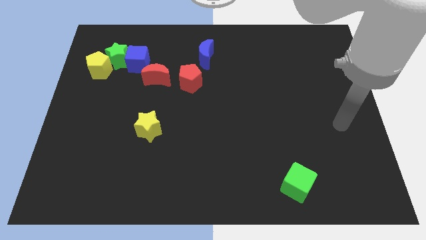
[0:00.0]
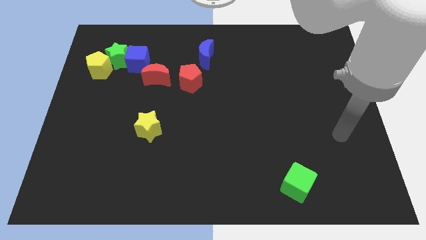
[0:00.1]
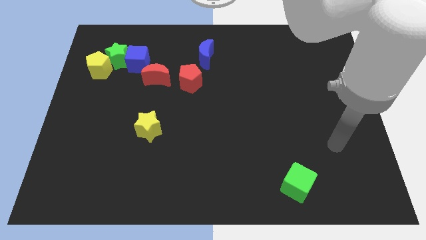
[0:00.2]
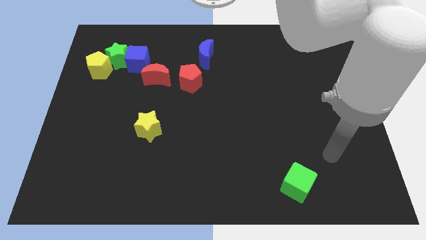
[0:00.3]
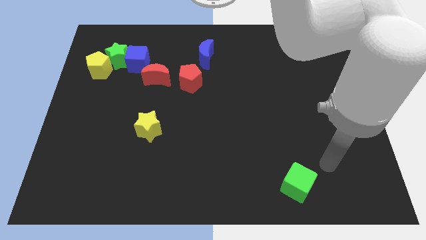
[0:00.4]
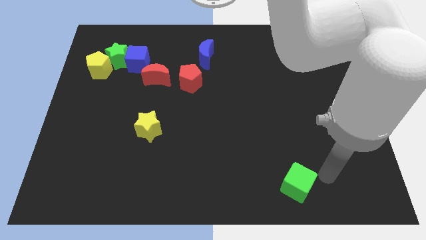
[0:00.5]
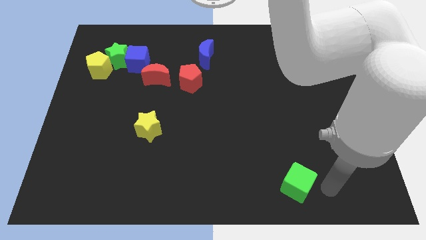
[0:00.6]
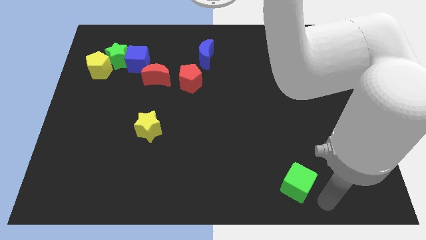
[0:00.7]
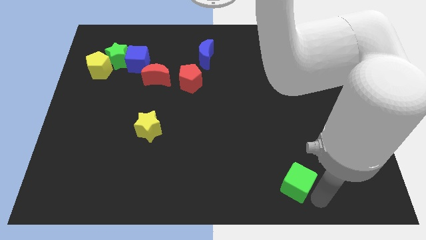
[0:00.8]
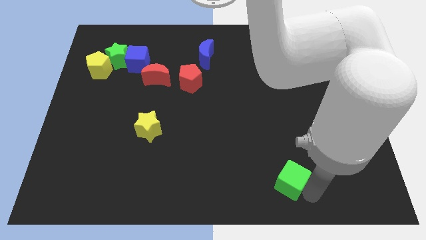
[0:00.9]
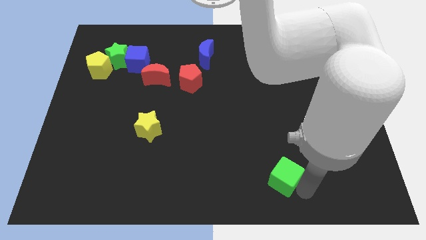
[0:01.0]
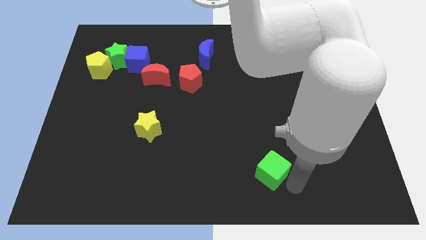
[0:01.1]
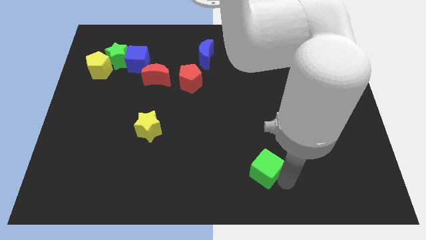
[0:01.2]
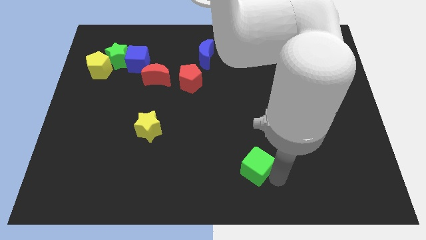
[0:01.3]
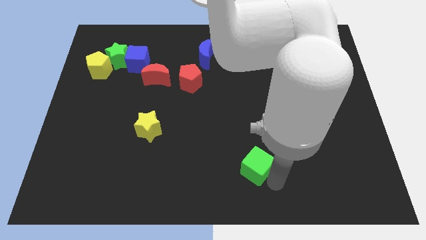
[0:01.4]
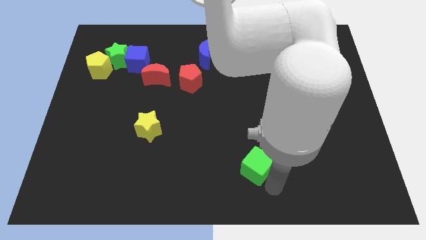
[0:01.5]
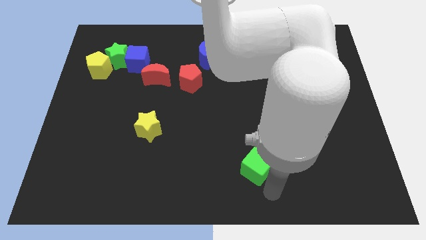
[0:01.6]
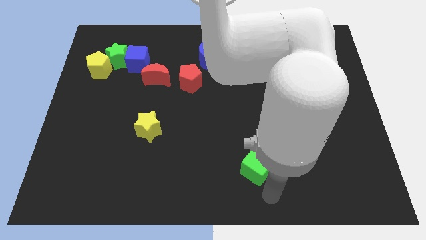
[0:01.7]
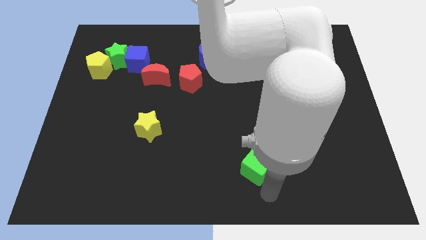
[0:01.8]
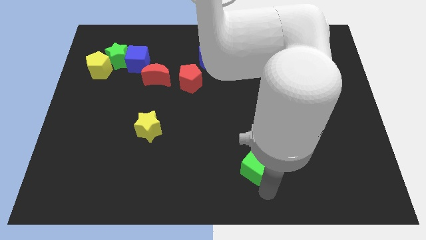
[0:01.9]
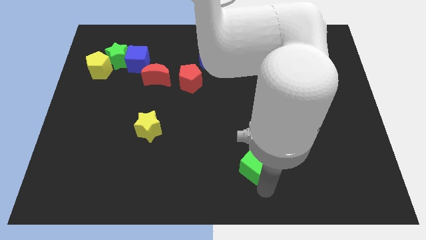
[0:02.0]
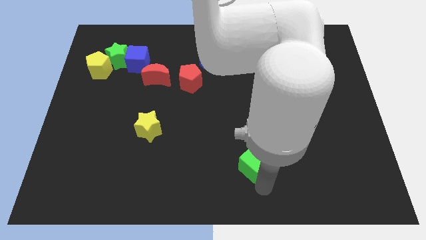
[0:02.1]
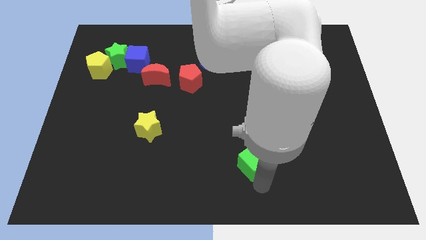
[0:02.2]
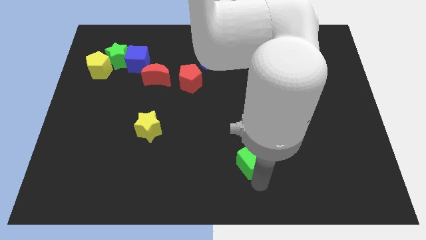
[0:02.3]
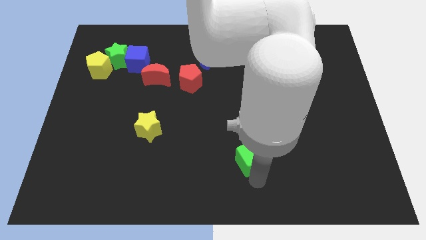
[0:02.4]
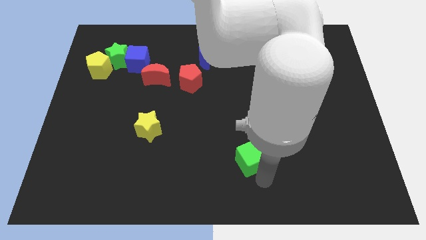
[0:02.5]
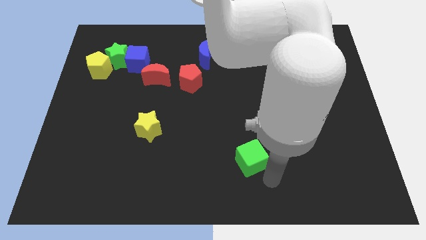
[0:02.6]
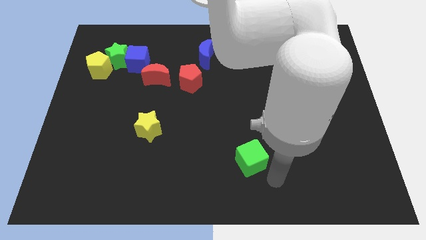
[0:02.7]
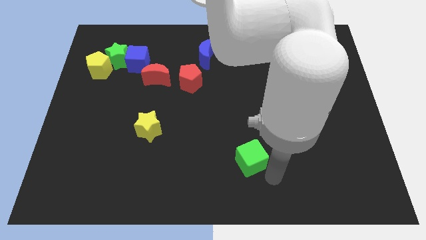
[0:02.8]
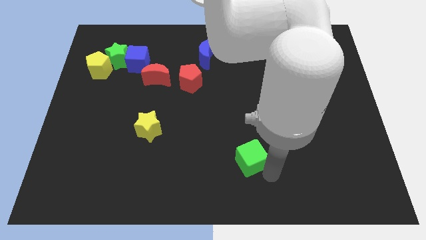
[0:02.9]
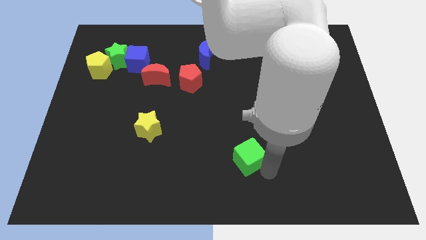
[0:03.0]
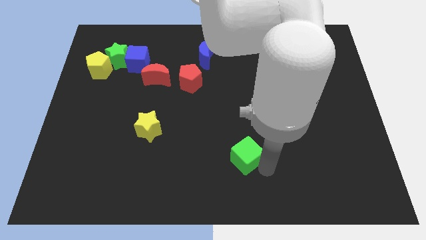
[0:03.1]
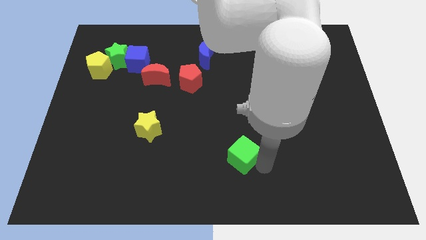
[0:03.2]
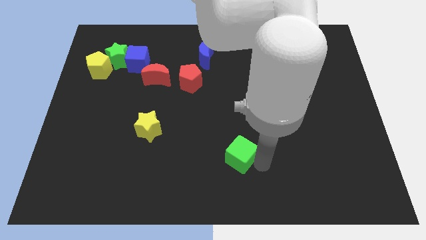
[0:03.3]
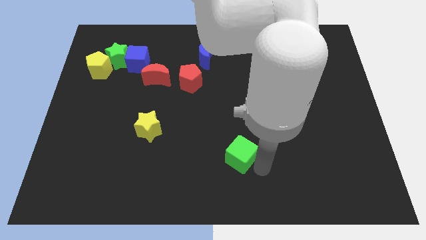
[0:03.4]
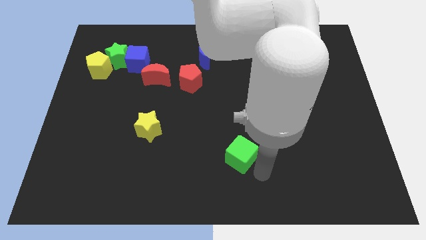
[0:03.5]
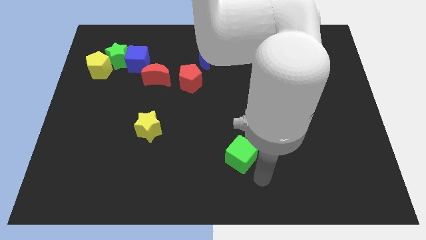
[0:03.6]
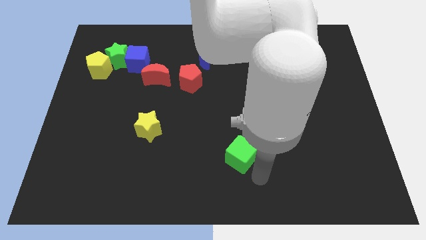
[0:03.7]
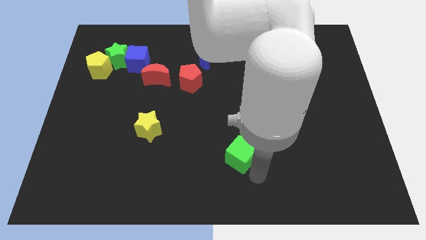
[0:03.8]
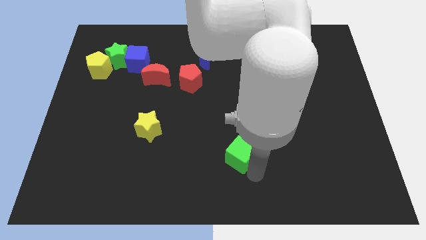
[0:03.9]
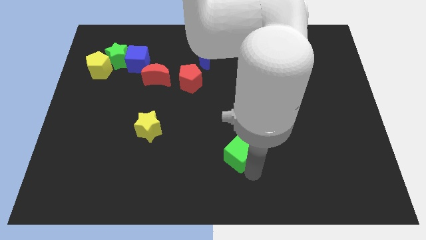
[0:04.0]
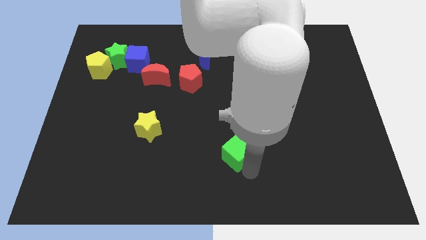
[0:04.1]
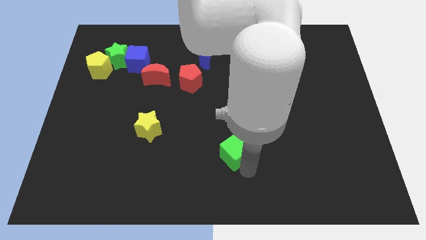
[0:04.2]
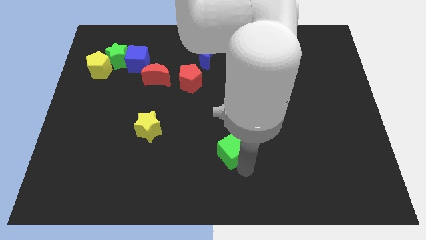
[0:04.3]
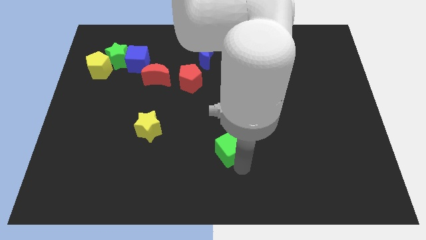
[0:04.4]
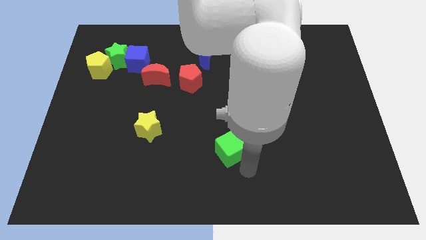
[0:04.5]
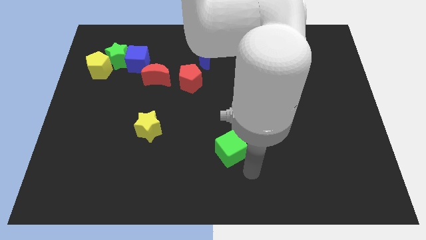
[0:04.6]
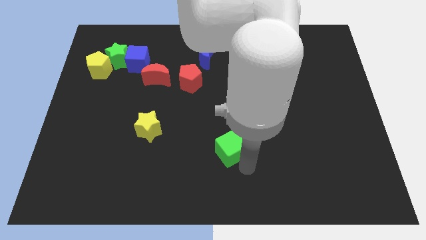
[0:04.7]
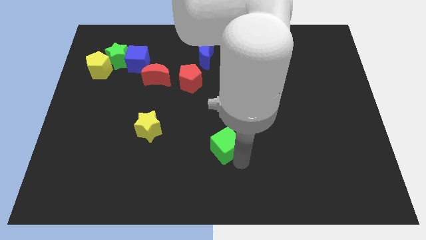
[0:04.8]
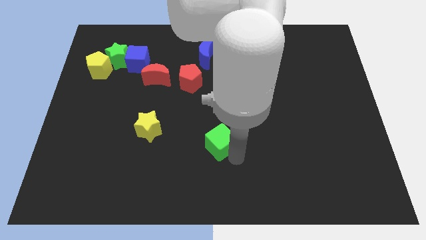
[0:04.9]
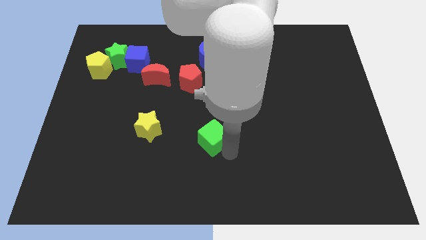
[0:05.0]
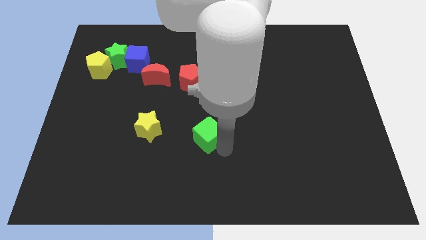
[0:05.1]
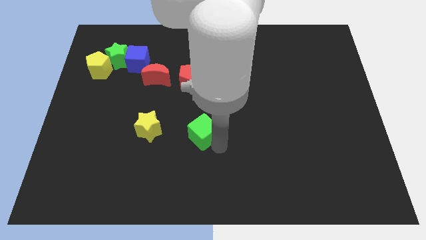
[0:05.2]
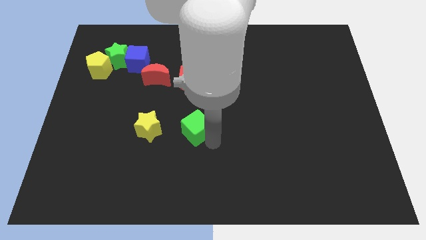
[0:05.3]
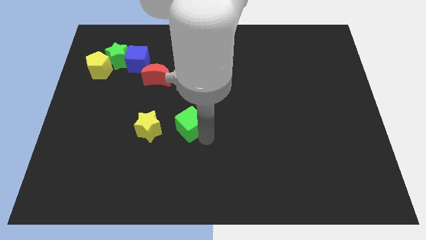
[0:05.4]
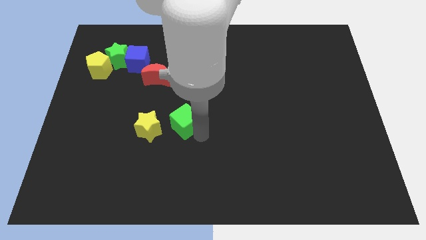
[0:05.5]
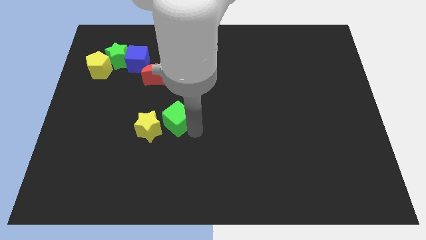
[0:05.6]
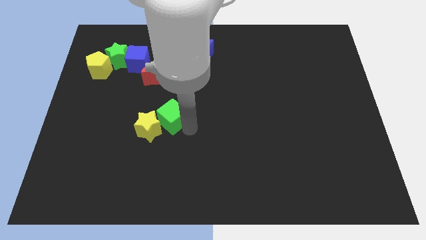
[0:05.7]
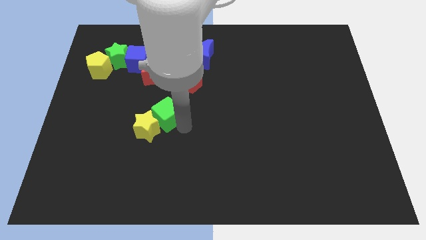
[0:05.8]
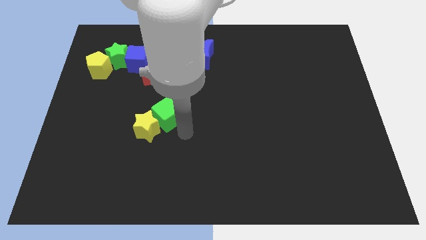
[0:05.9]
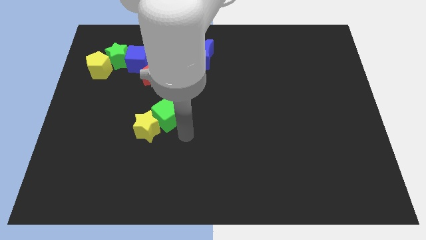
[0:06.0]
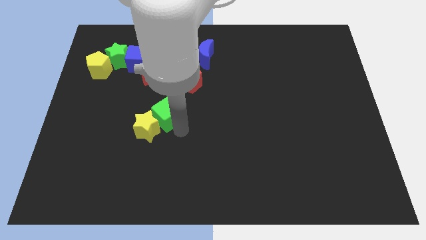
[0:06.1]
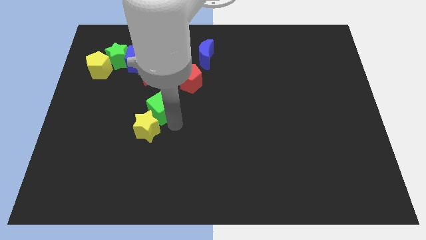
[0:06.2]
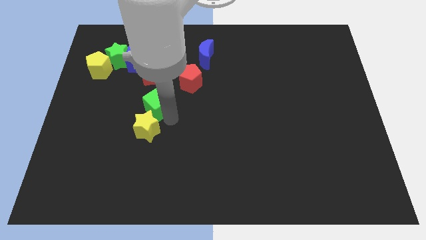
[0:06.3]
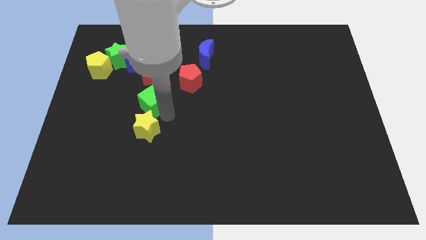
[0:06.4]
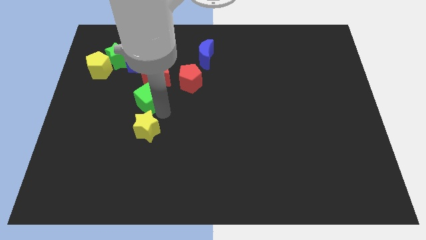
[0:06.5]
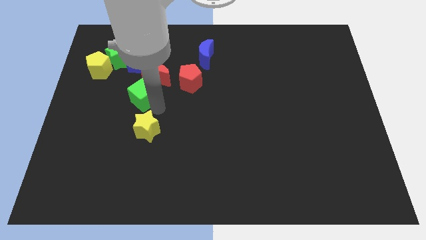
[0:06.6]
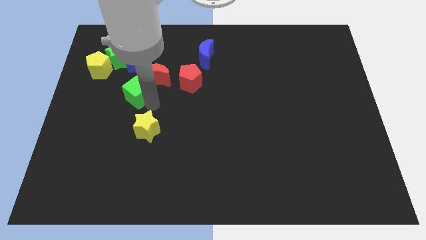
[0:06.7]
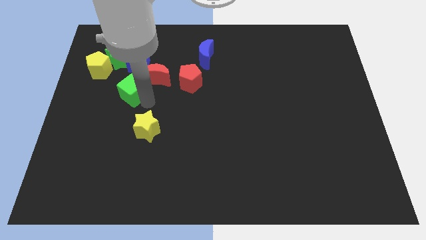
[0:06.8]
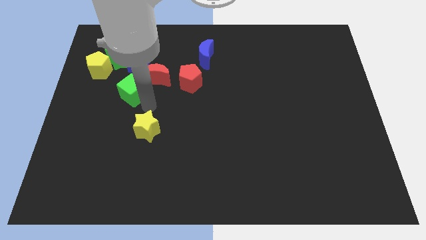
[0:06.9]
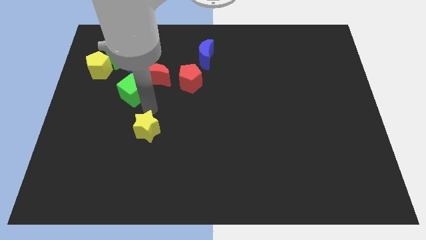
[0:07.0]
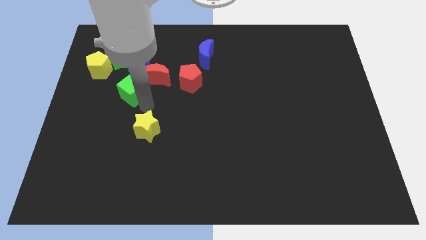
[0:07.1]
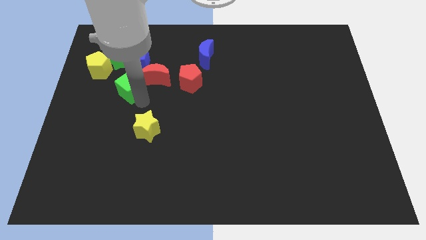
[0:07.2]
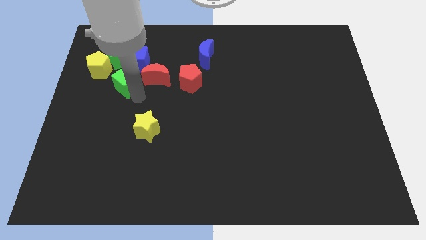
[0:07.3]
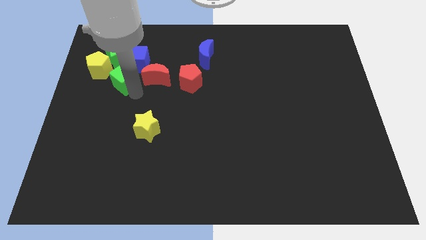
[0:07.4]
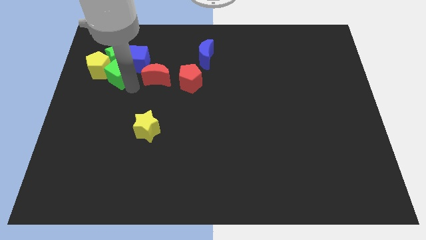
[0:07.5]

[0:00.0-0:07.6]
put the green cube to the yellow pentagon

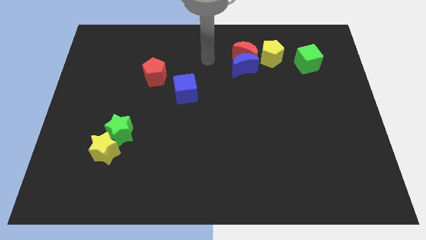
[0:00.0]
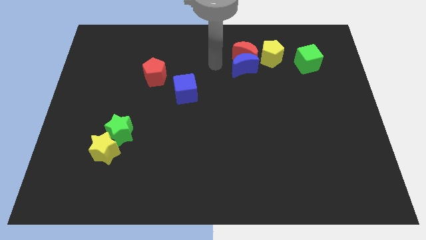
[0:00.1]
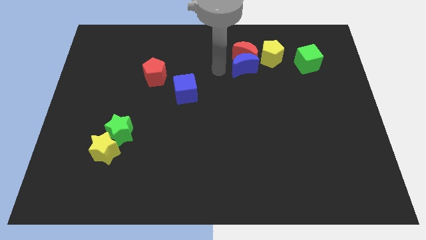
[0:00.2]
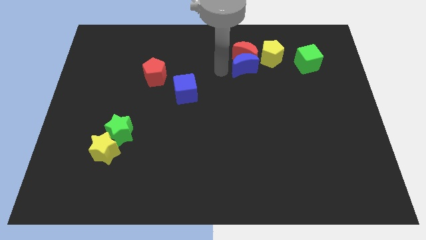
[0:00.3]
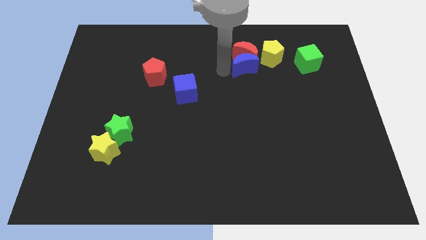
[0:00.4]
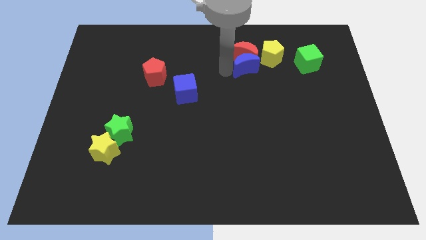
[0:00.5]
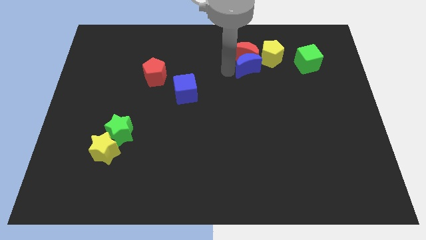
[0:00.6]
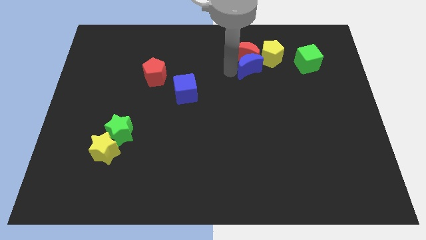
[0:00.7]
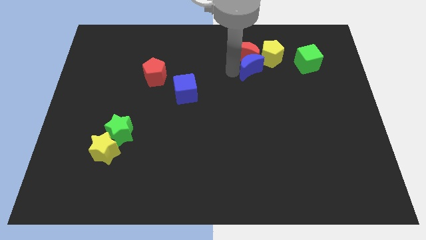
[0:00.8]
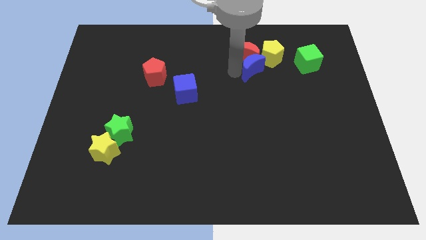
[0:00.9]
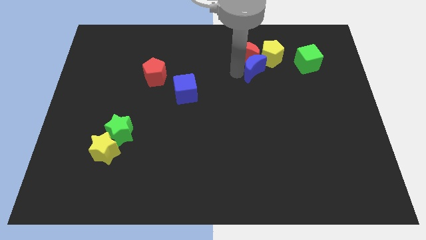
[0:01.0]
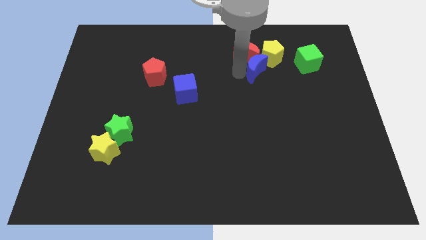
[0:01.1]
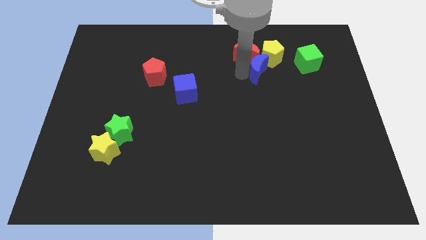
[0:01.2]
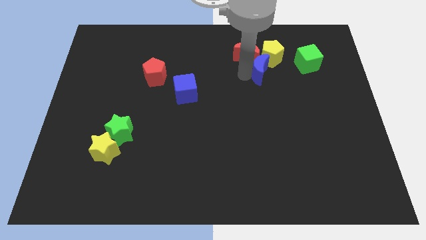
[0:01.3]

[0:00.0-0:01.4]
put the blue moon close to the yellow pentagon
